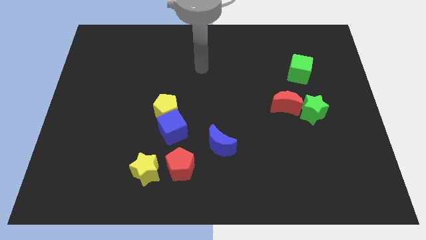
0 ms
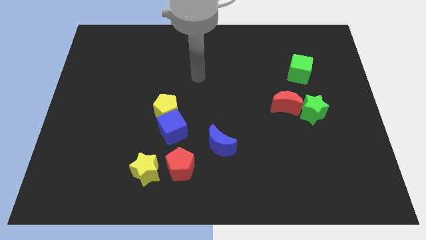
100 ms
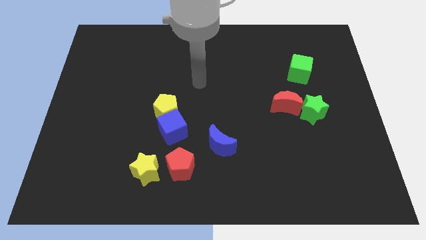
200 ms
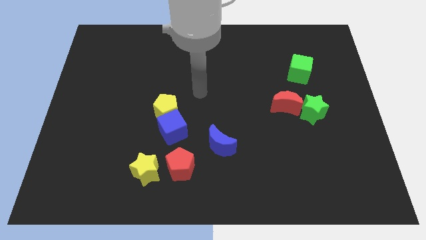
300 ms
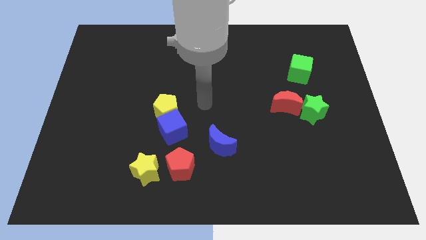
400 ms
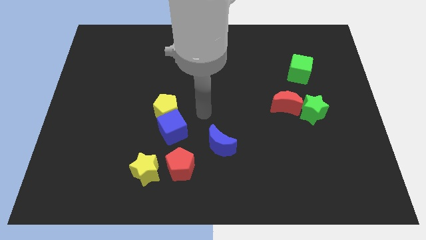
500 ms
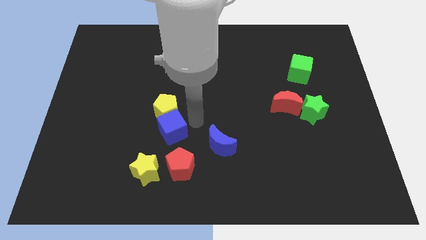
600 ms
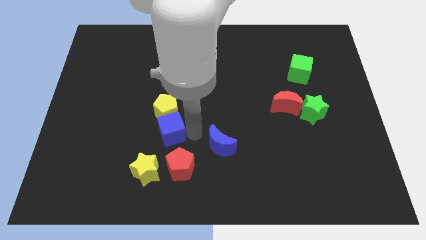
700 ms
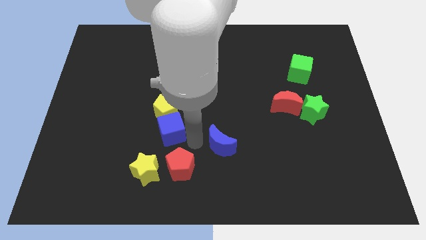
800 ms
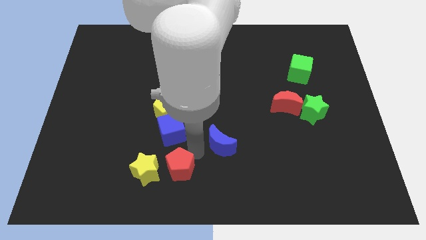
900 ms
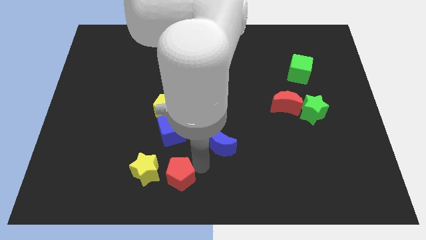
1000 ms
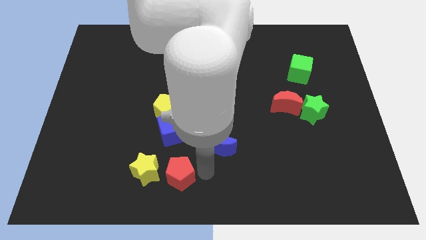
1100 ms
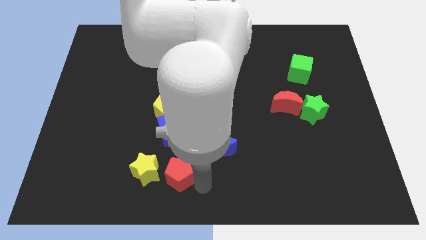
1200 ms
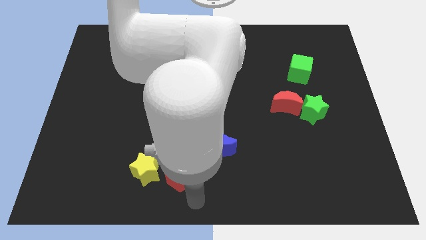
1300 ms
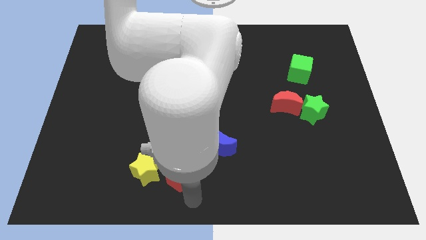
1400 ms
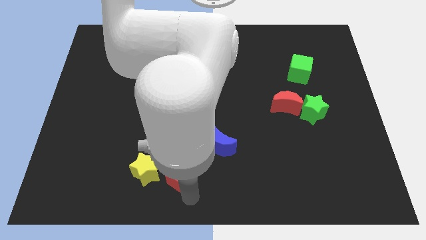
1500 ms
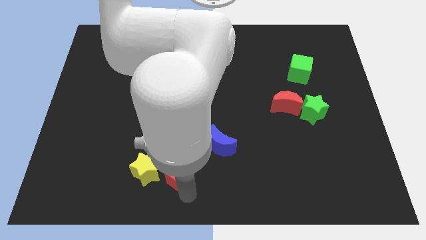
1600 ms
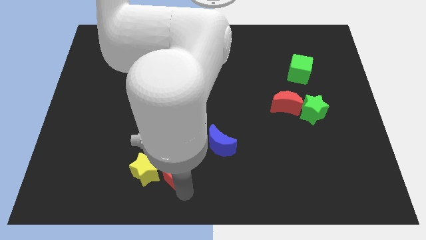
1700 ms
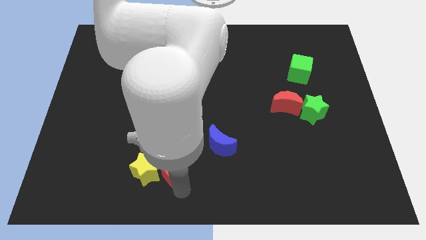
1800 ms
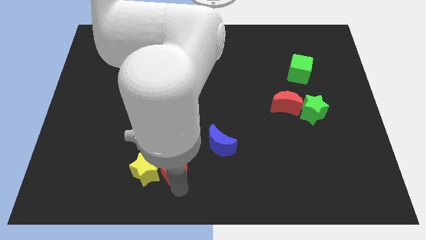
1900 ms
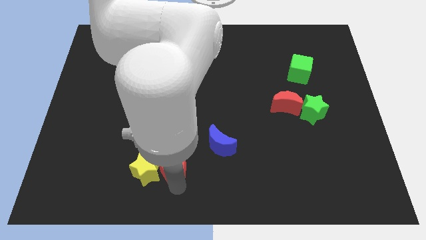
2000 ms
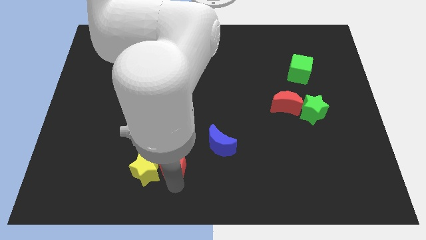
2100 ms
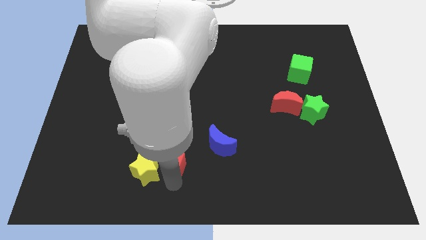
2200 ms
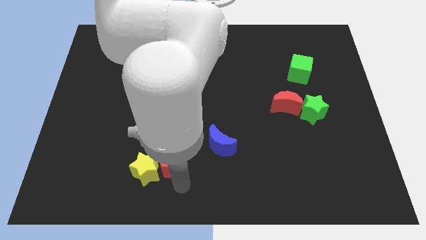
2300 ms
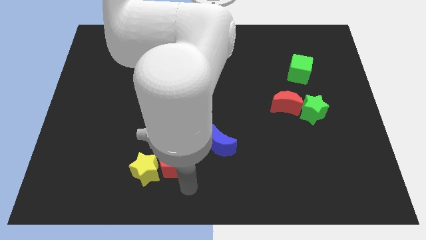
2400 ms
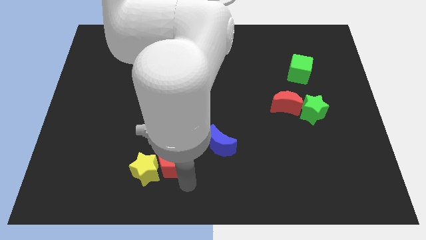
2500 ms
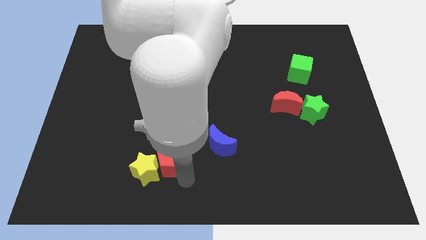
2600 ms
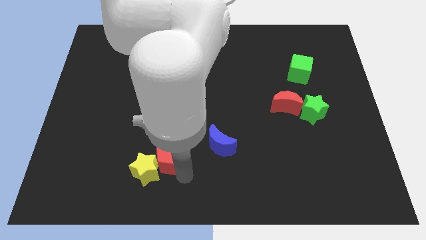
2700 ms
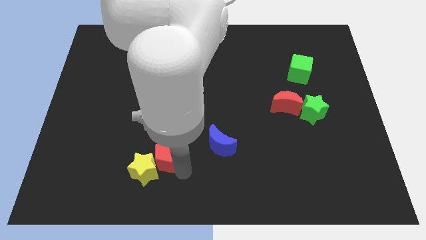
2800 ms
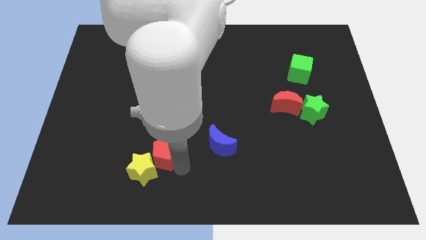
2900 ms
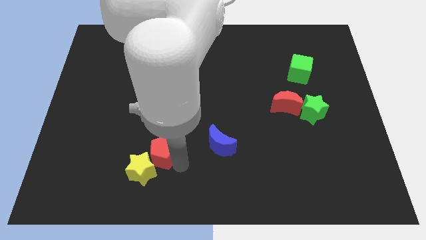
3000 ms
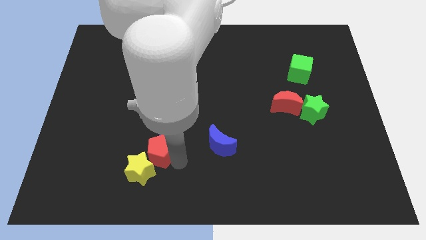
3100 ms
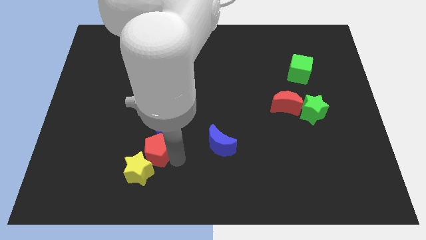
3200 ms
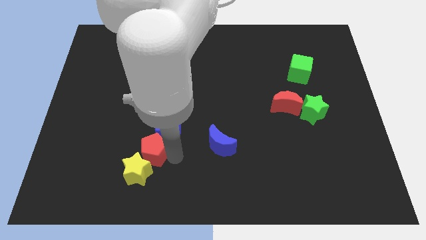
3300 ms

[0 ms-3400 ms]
slide the red pentagon a little up and left diagonally

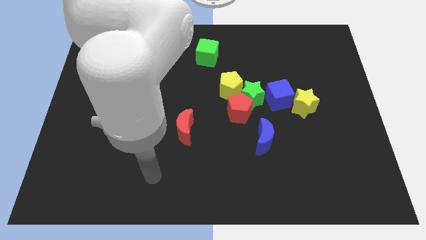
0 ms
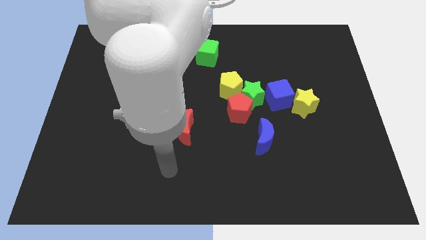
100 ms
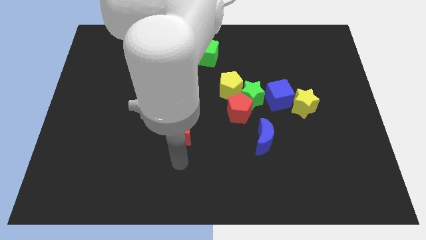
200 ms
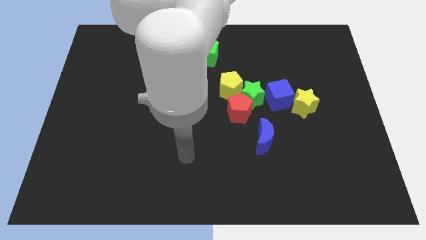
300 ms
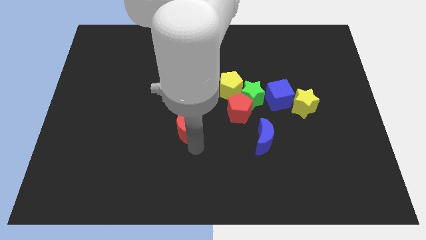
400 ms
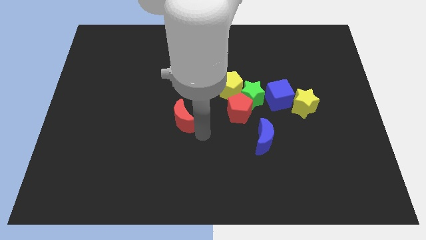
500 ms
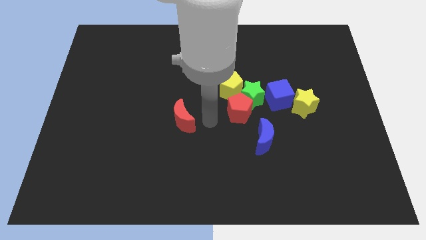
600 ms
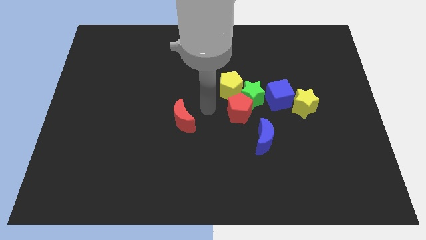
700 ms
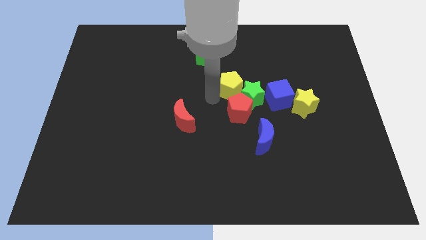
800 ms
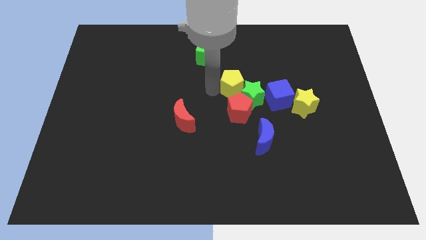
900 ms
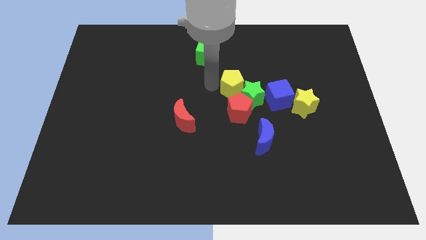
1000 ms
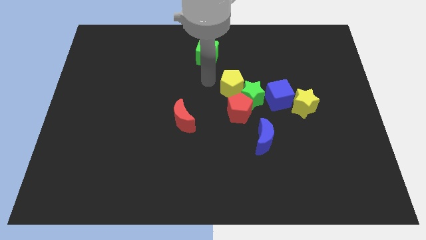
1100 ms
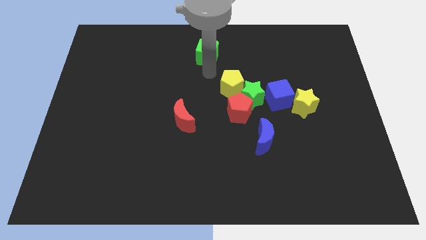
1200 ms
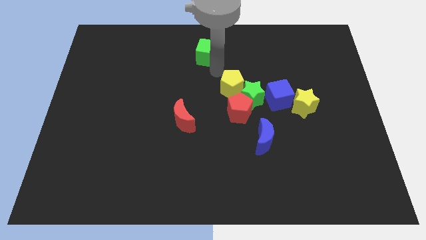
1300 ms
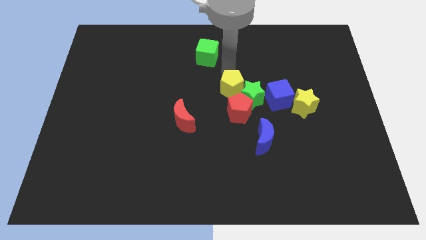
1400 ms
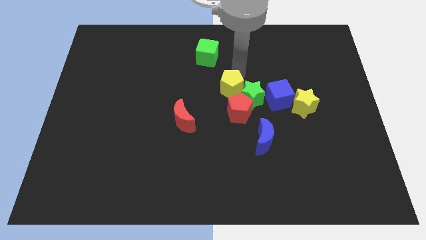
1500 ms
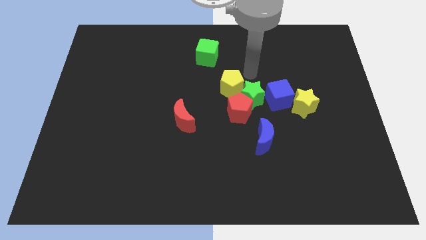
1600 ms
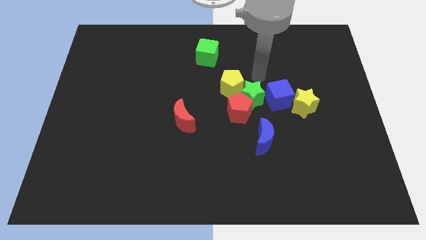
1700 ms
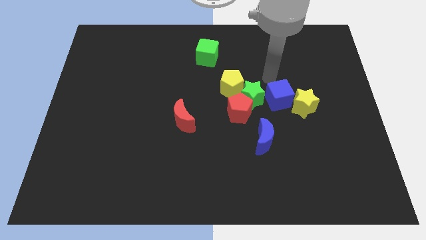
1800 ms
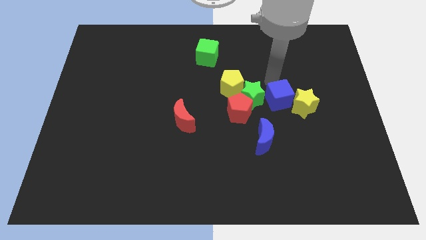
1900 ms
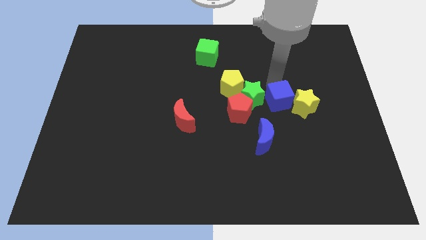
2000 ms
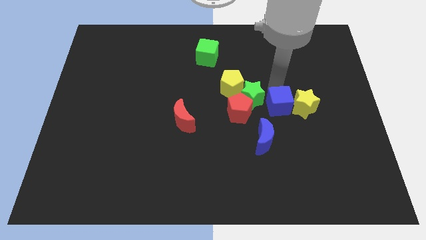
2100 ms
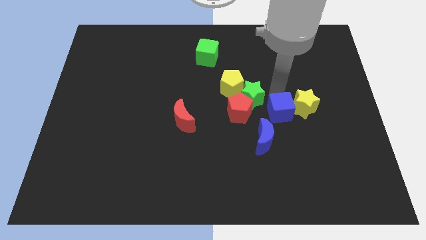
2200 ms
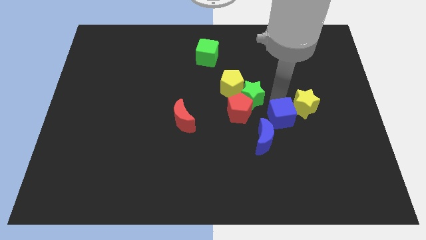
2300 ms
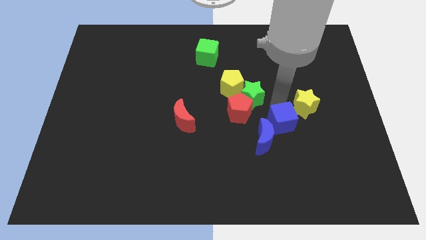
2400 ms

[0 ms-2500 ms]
slightly move the blue cube downwards

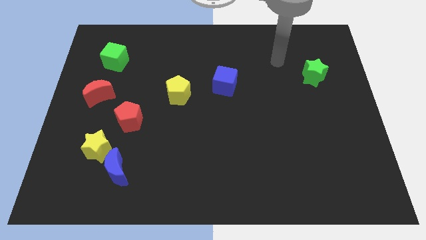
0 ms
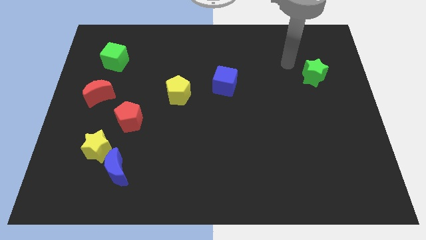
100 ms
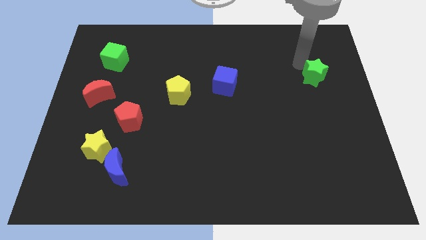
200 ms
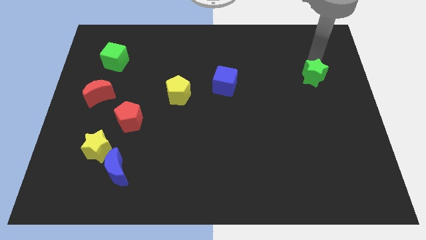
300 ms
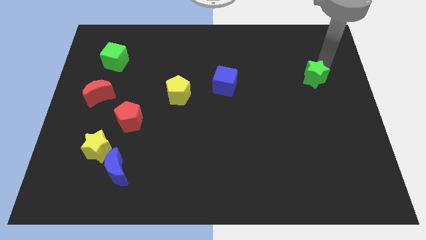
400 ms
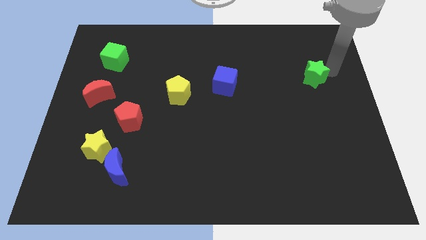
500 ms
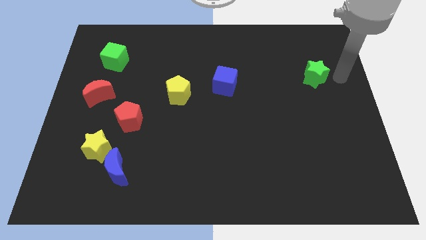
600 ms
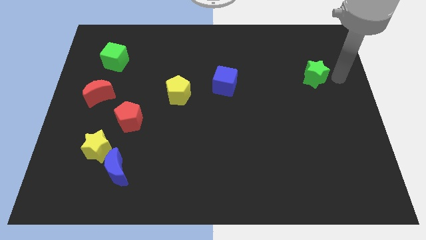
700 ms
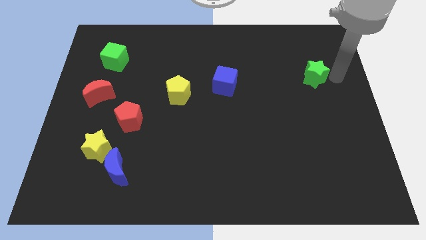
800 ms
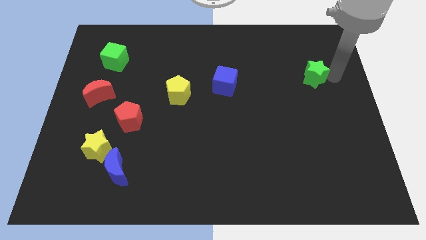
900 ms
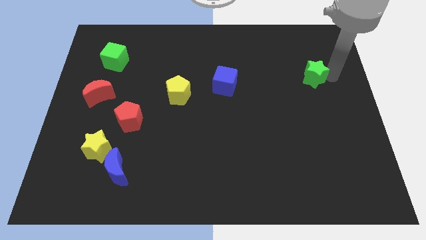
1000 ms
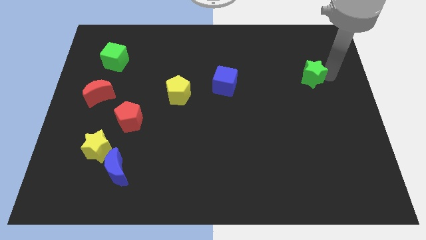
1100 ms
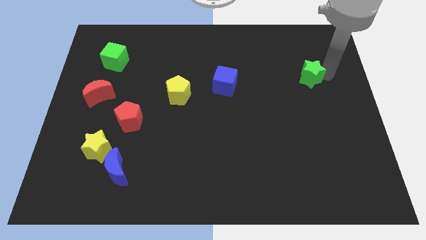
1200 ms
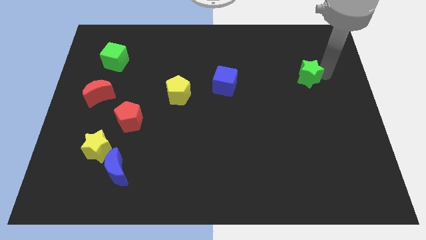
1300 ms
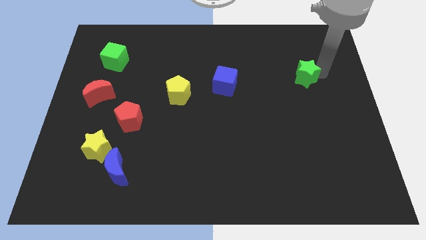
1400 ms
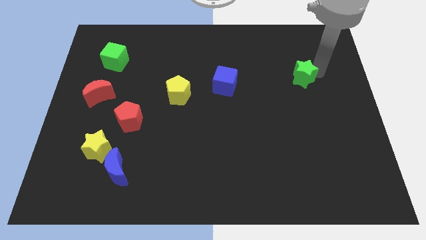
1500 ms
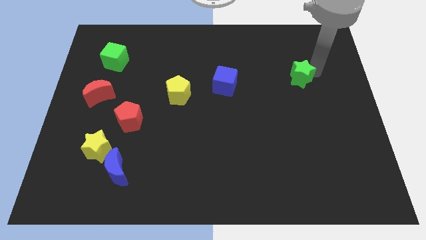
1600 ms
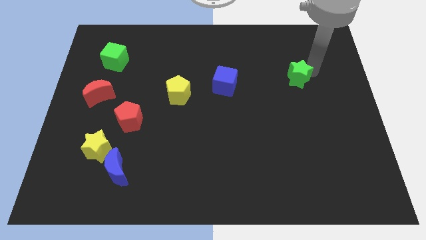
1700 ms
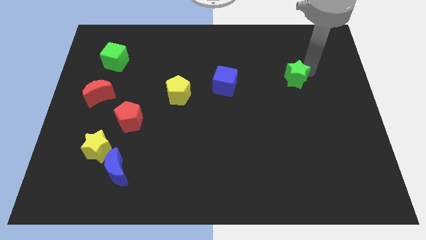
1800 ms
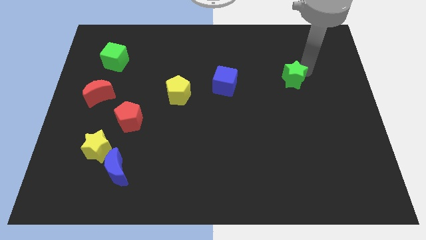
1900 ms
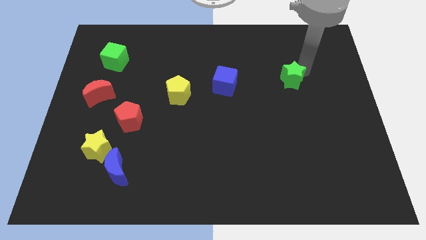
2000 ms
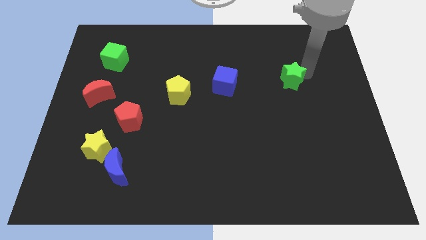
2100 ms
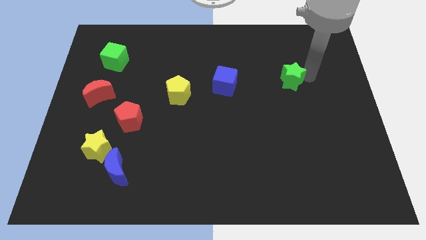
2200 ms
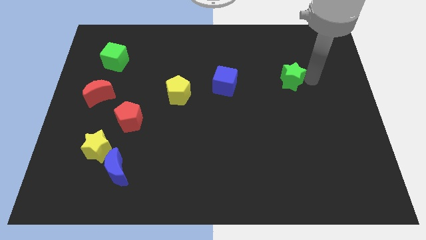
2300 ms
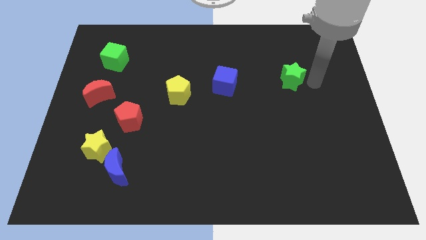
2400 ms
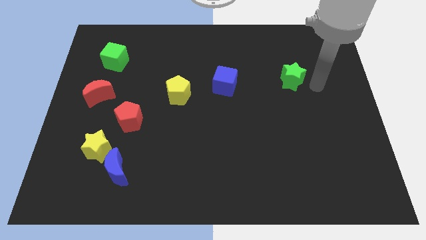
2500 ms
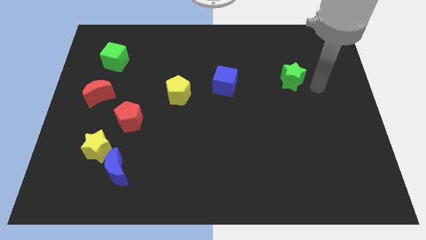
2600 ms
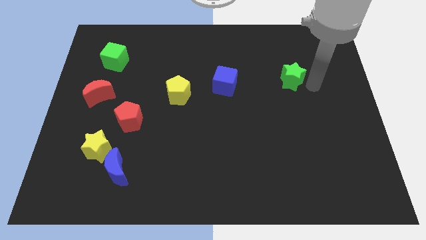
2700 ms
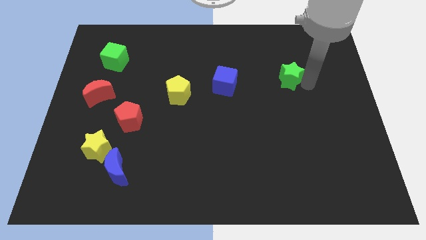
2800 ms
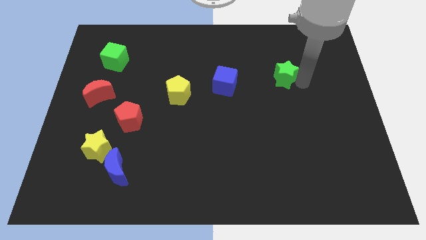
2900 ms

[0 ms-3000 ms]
slide the green star left somewhat
